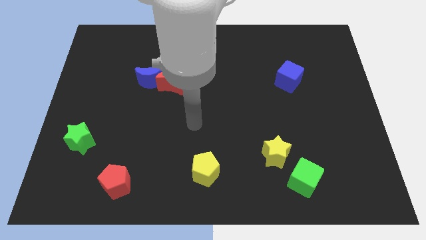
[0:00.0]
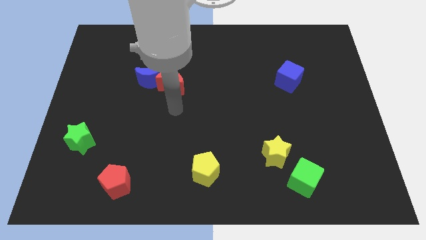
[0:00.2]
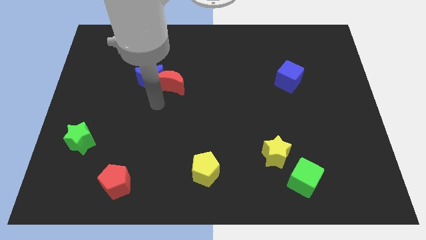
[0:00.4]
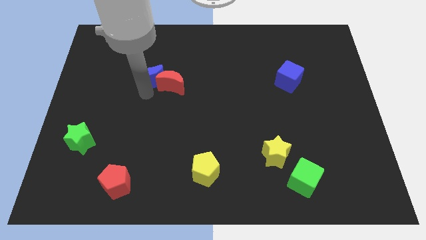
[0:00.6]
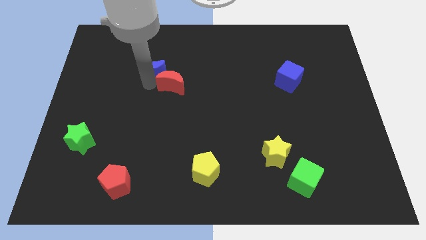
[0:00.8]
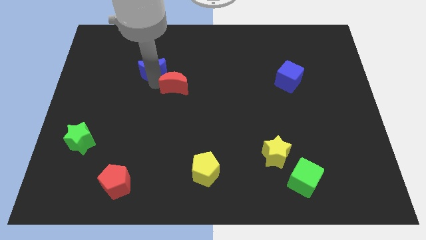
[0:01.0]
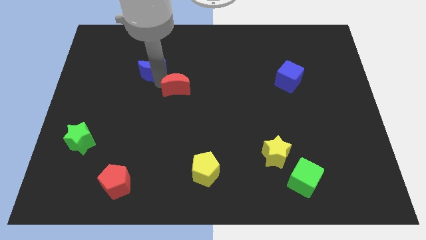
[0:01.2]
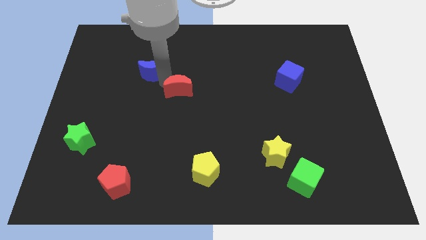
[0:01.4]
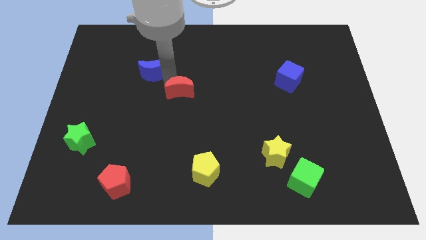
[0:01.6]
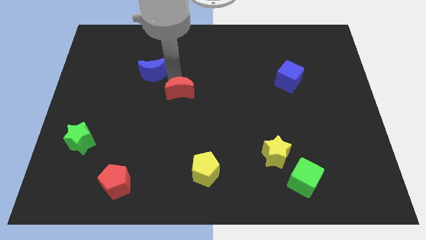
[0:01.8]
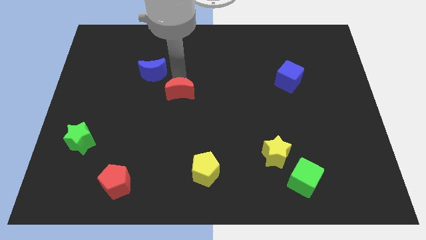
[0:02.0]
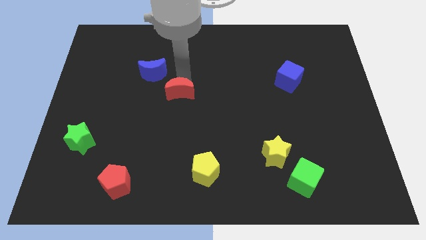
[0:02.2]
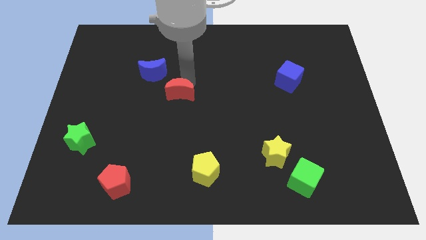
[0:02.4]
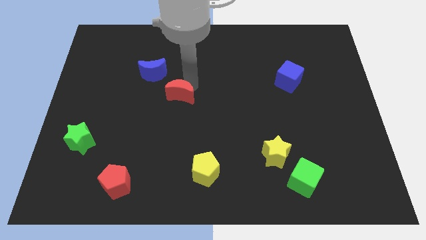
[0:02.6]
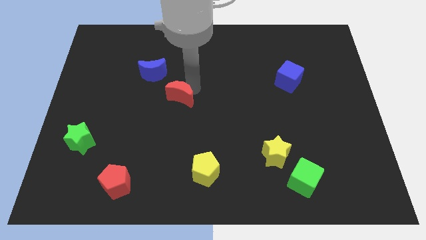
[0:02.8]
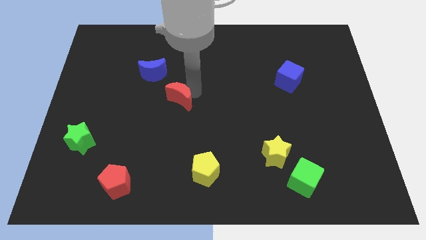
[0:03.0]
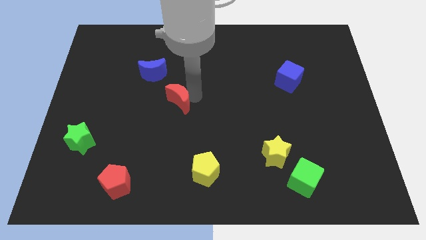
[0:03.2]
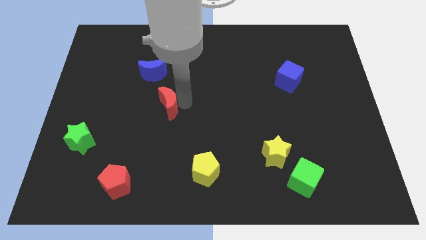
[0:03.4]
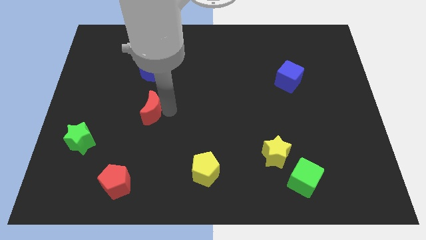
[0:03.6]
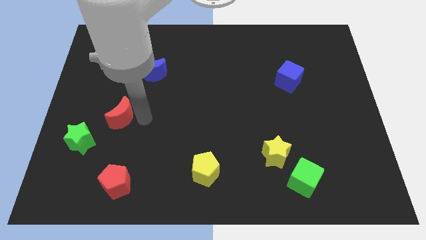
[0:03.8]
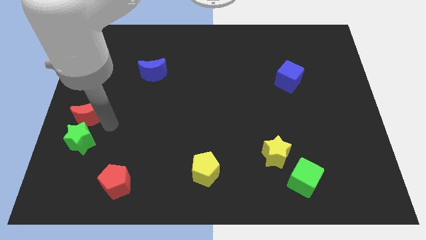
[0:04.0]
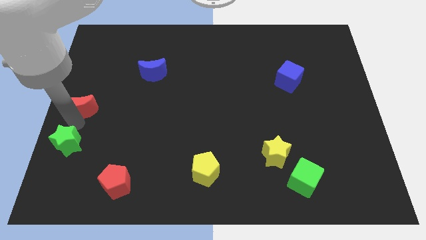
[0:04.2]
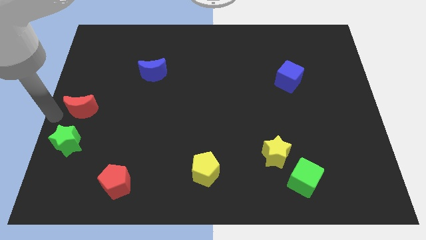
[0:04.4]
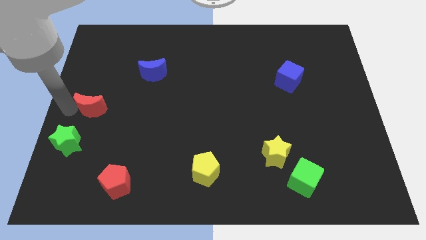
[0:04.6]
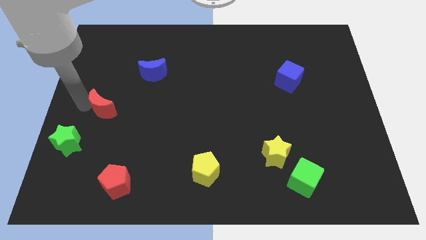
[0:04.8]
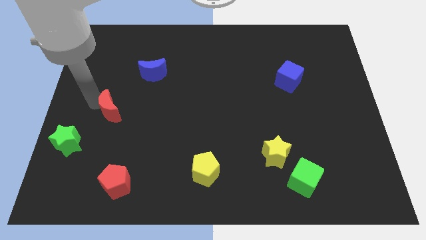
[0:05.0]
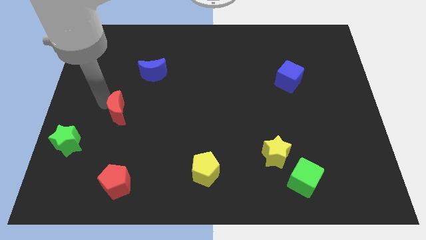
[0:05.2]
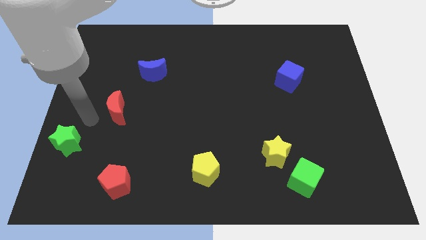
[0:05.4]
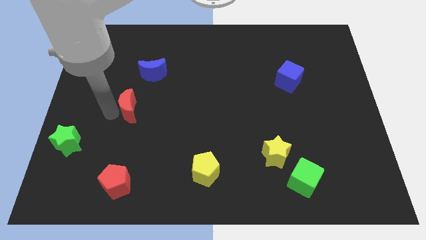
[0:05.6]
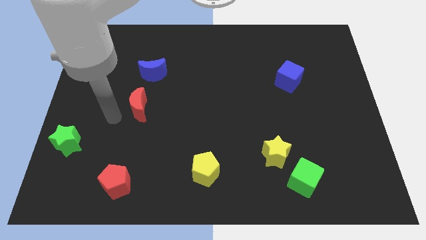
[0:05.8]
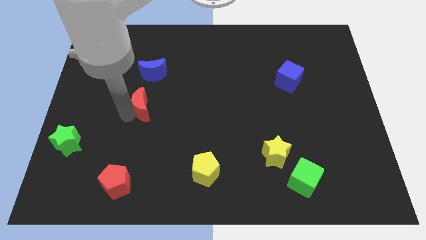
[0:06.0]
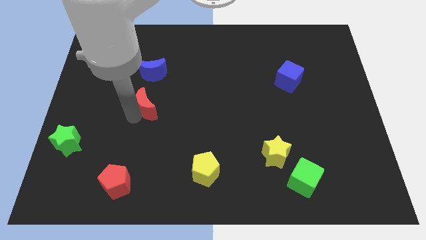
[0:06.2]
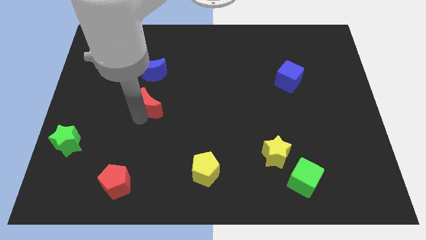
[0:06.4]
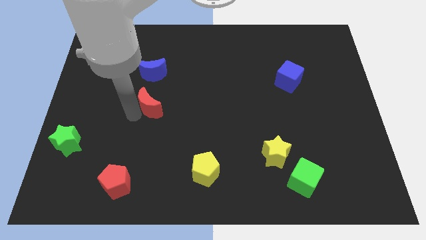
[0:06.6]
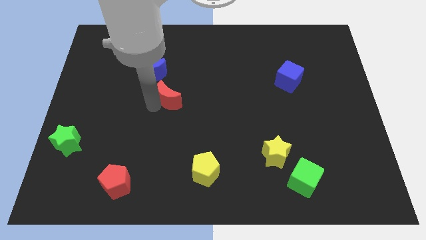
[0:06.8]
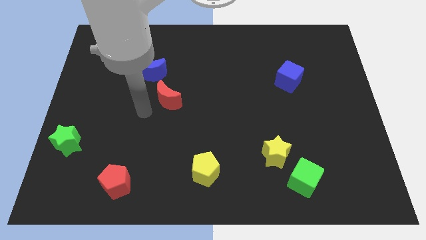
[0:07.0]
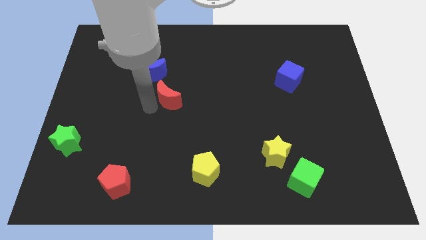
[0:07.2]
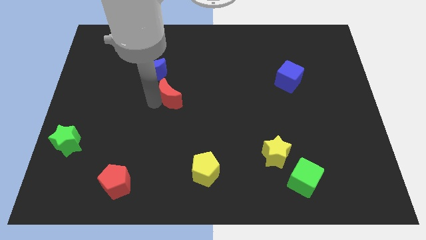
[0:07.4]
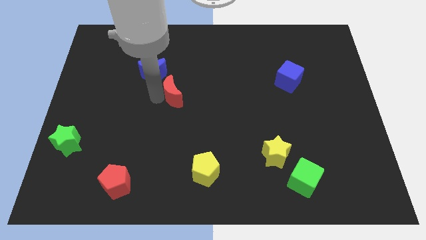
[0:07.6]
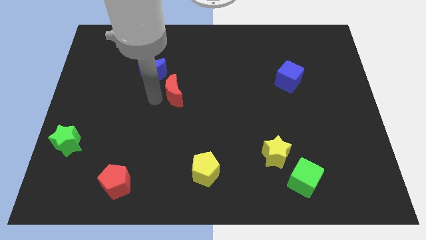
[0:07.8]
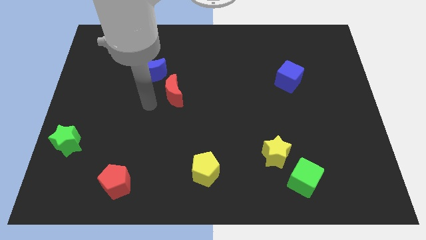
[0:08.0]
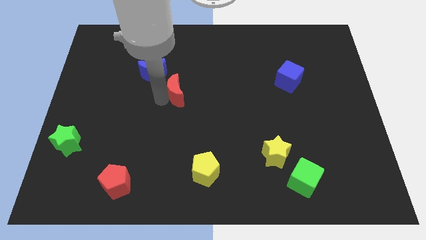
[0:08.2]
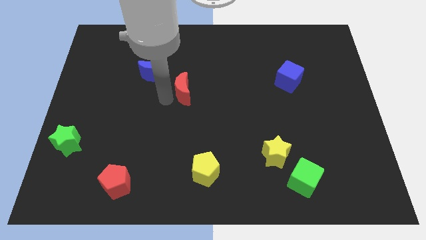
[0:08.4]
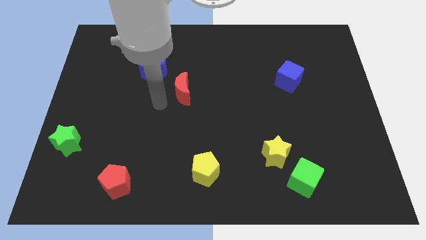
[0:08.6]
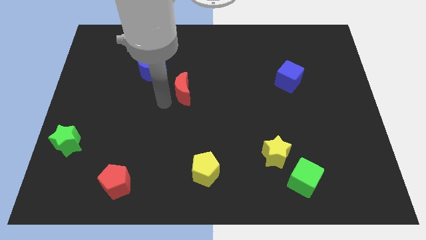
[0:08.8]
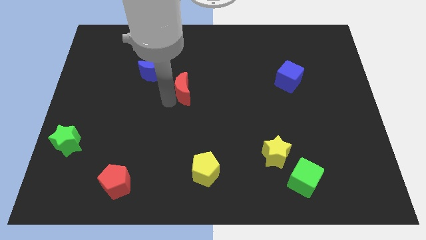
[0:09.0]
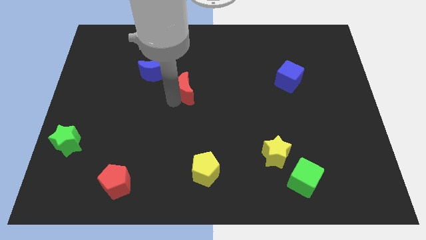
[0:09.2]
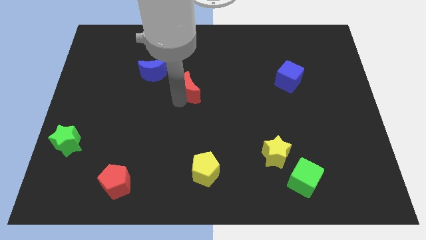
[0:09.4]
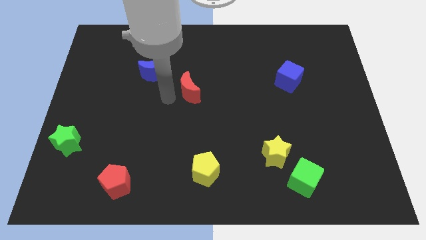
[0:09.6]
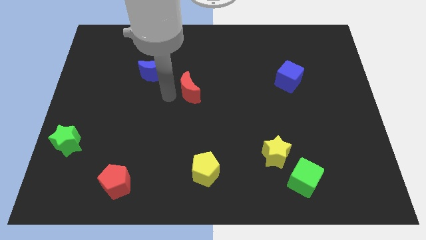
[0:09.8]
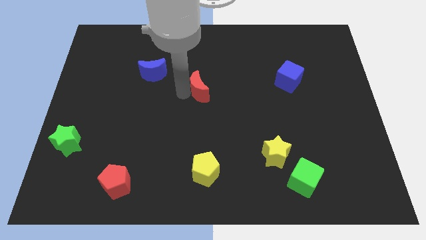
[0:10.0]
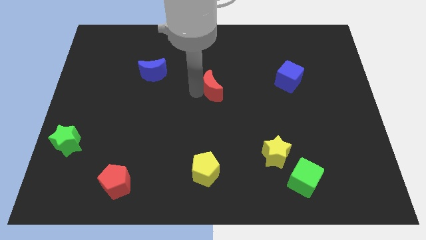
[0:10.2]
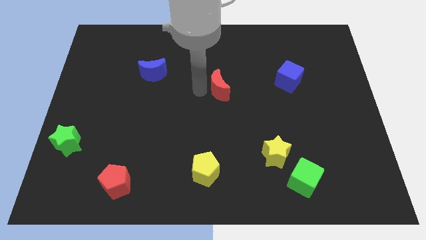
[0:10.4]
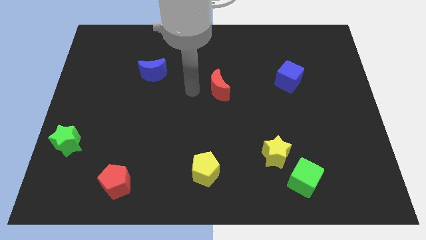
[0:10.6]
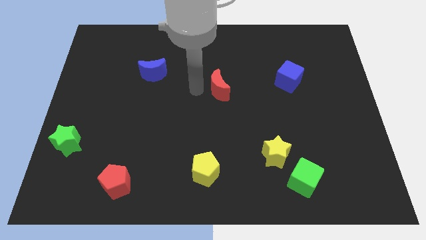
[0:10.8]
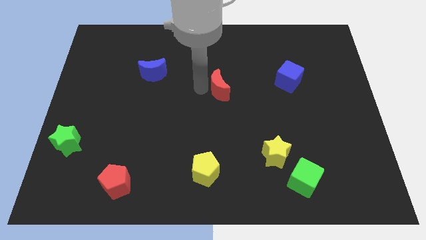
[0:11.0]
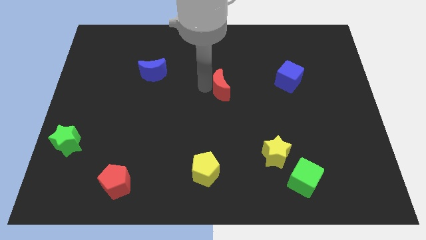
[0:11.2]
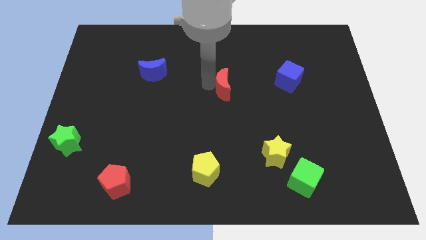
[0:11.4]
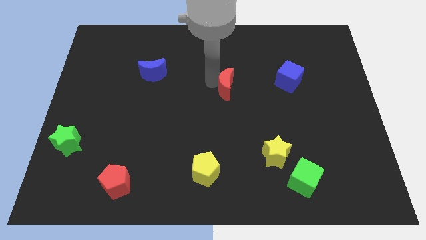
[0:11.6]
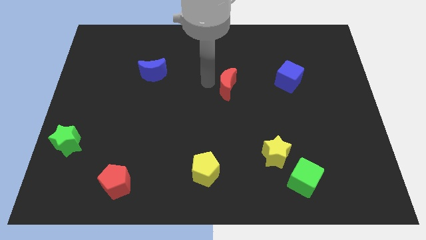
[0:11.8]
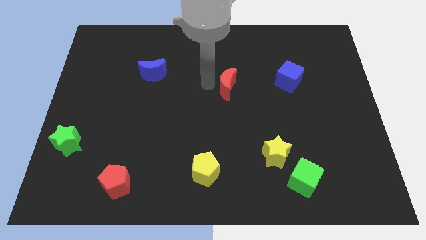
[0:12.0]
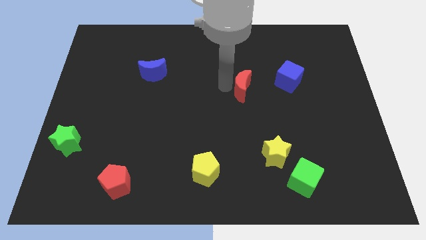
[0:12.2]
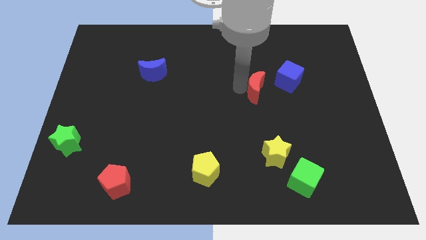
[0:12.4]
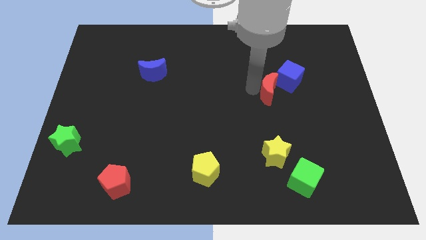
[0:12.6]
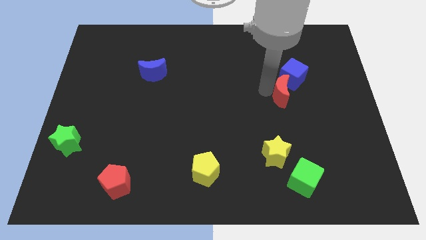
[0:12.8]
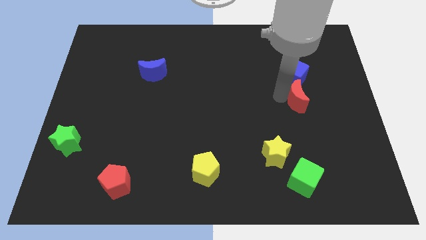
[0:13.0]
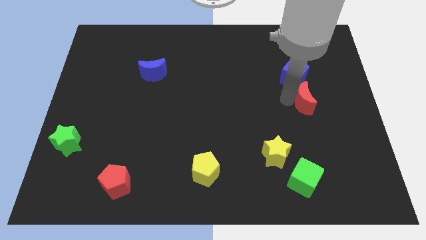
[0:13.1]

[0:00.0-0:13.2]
push the red moon to the bottom right of the blue cube
